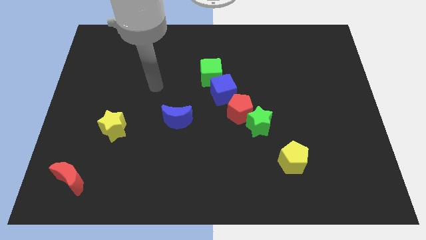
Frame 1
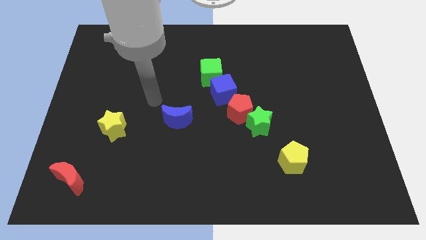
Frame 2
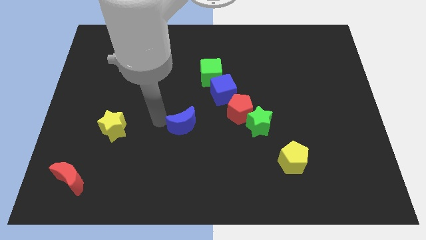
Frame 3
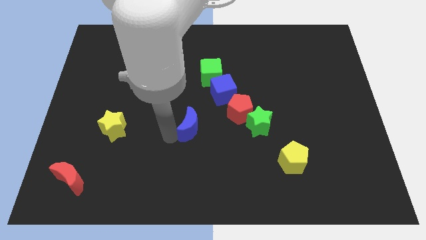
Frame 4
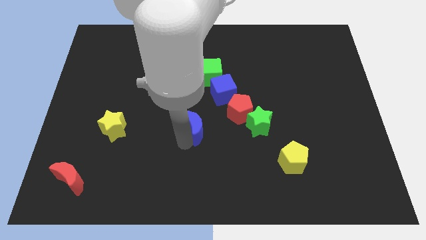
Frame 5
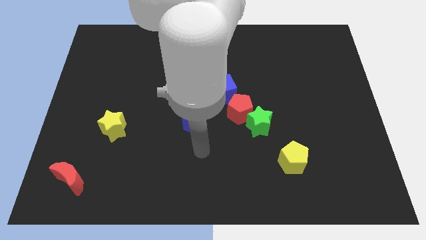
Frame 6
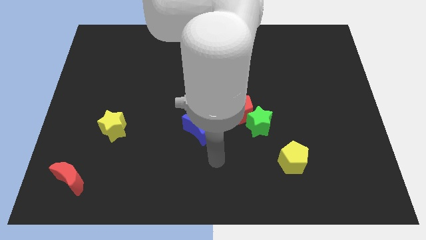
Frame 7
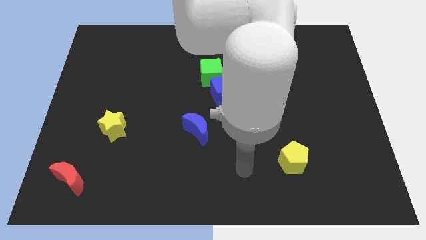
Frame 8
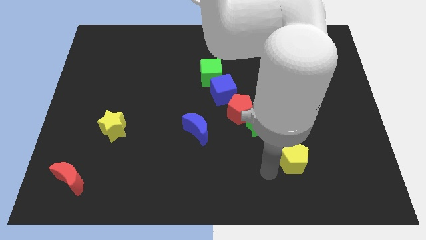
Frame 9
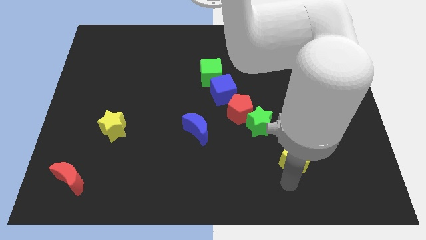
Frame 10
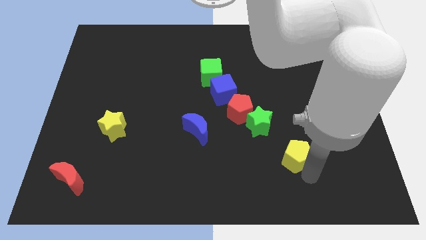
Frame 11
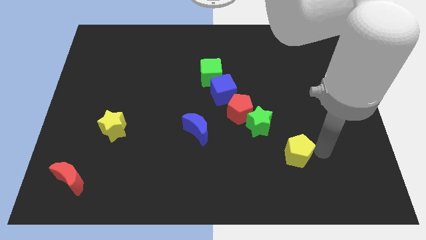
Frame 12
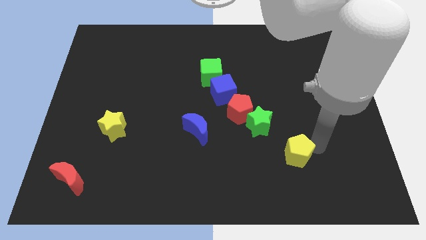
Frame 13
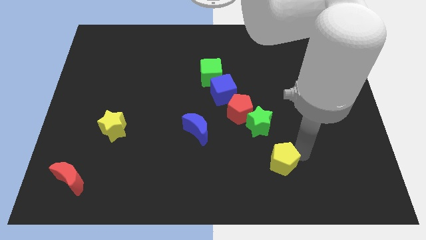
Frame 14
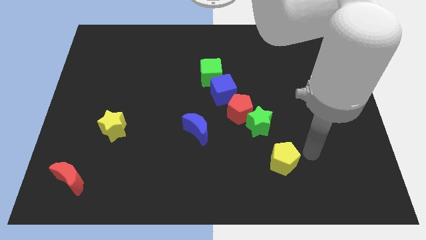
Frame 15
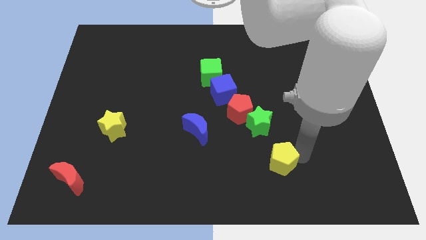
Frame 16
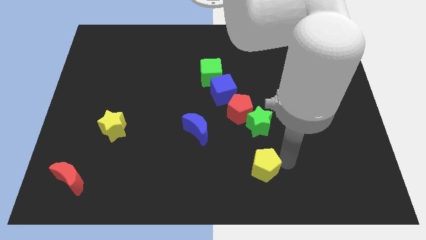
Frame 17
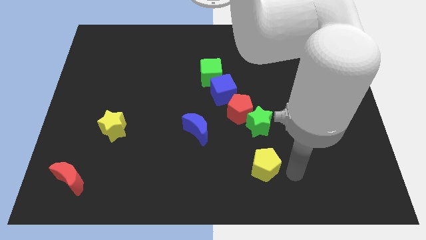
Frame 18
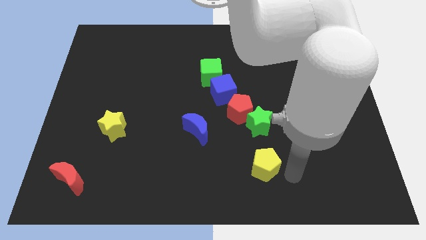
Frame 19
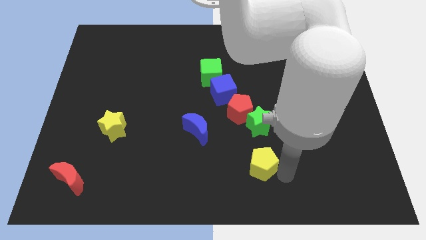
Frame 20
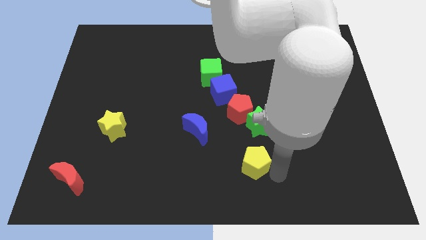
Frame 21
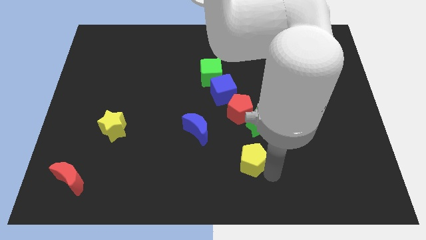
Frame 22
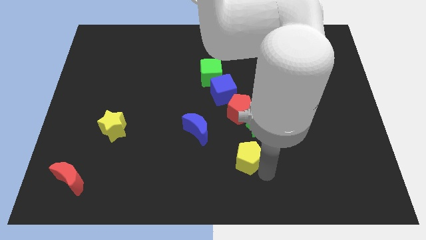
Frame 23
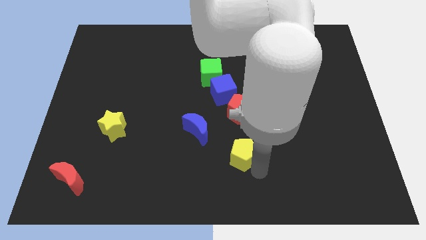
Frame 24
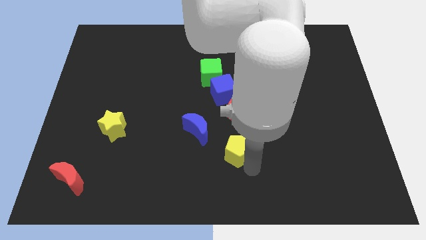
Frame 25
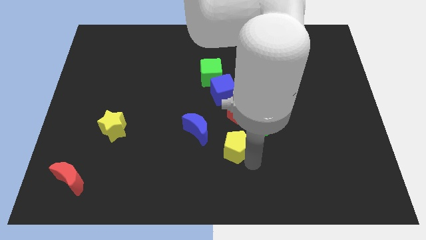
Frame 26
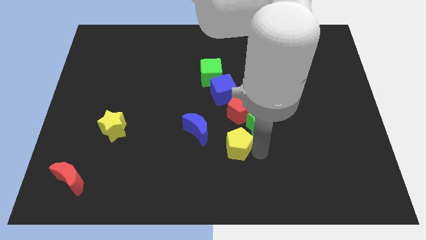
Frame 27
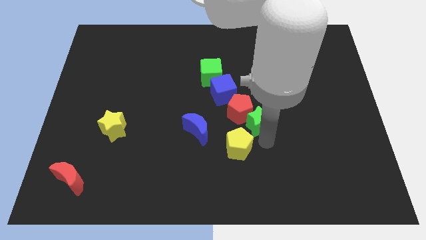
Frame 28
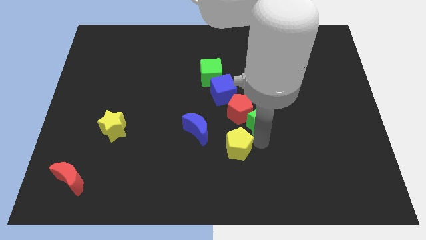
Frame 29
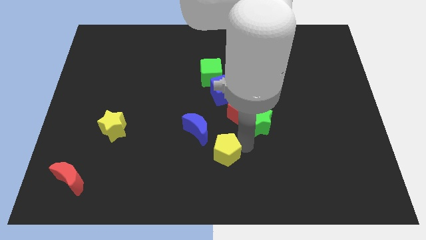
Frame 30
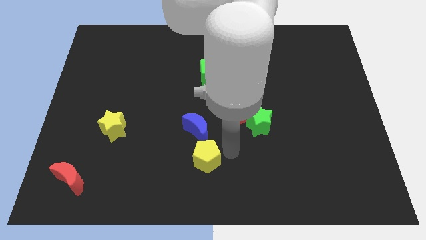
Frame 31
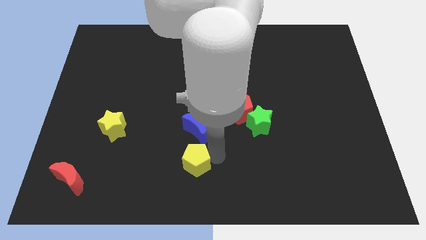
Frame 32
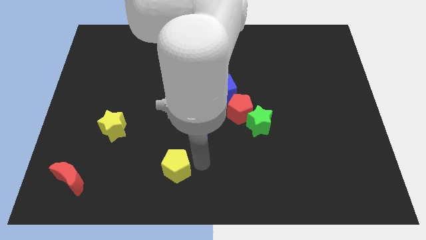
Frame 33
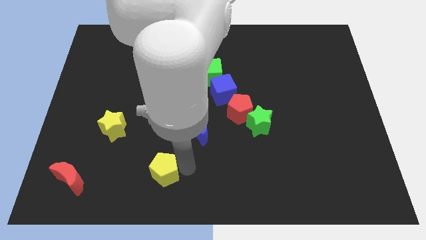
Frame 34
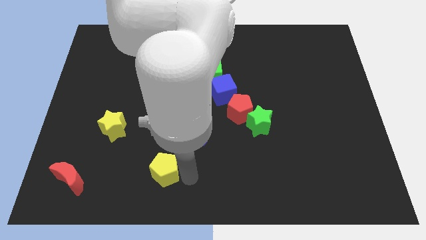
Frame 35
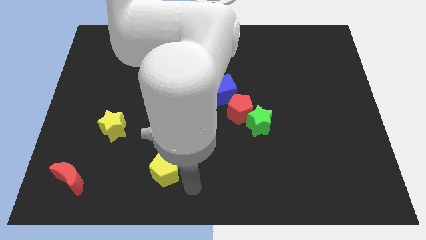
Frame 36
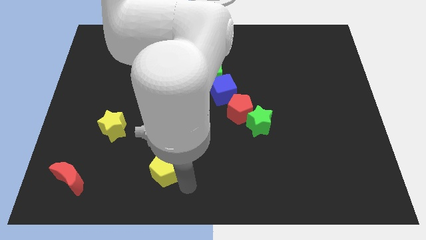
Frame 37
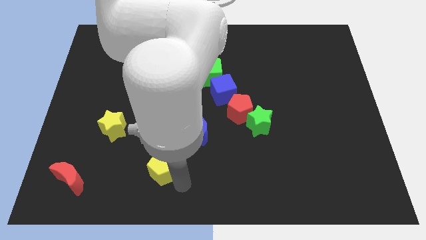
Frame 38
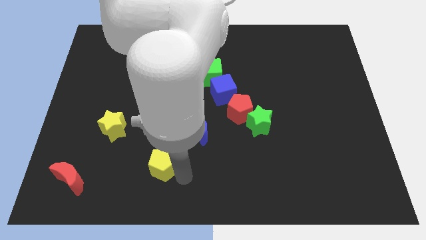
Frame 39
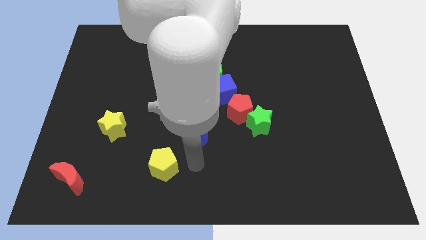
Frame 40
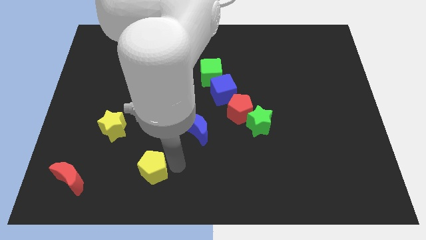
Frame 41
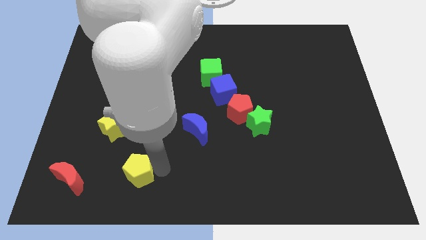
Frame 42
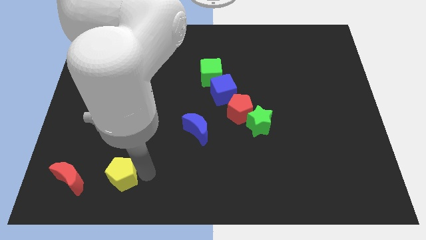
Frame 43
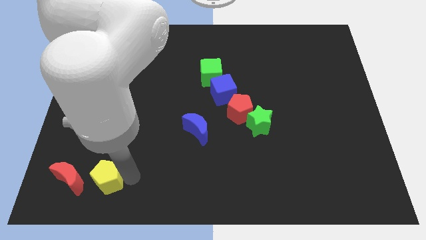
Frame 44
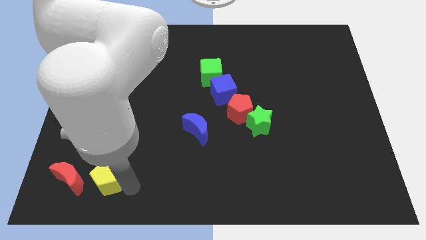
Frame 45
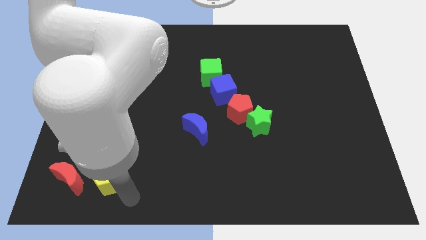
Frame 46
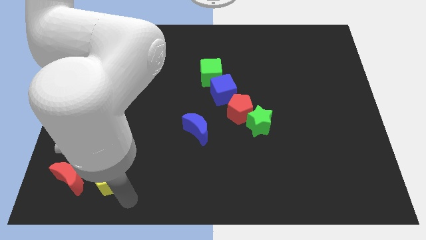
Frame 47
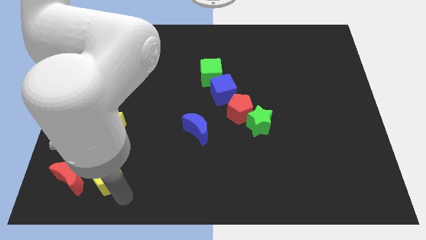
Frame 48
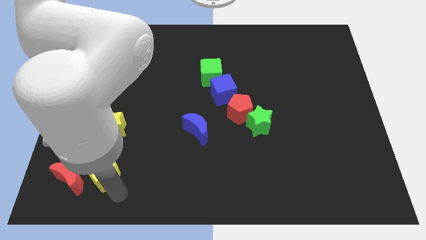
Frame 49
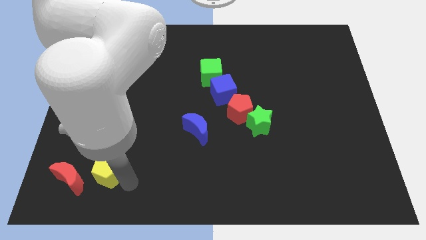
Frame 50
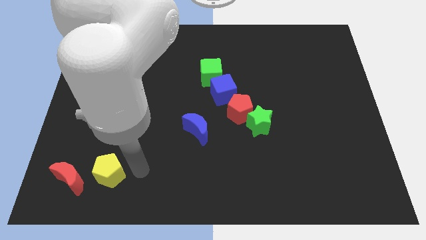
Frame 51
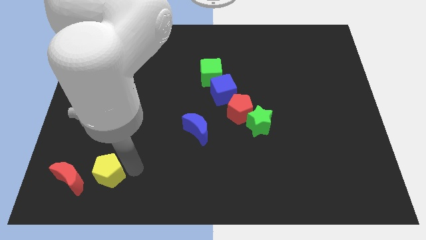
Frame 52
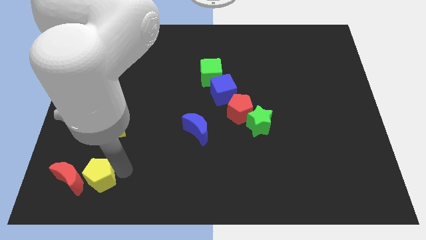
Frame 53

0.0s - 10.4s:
slide the yellow pentagon close to the red moon

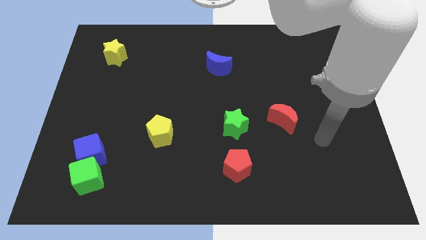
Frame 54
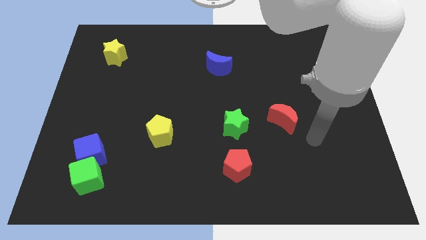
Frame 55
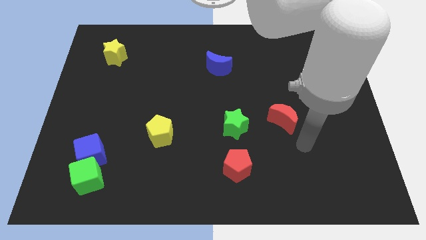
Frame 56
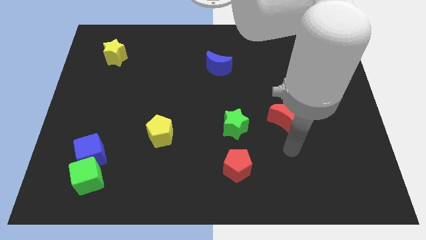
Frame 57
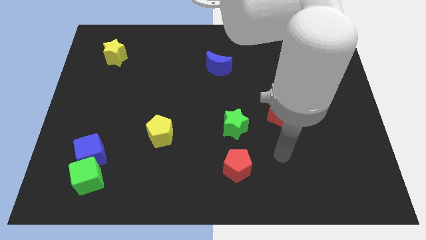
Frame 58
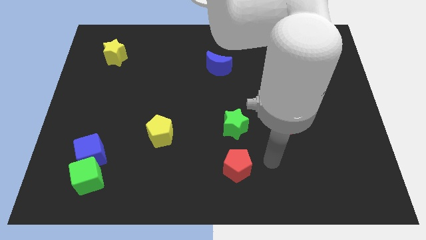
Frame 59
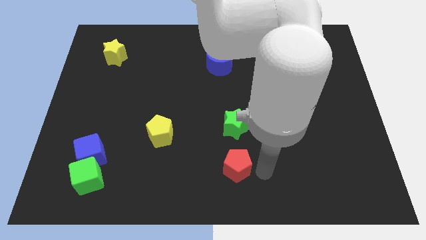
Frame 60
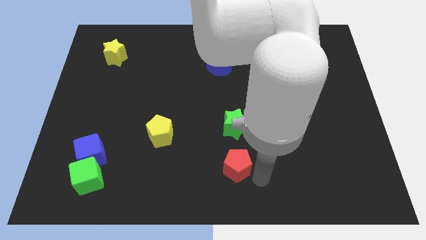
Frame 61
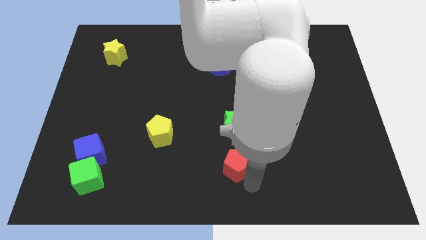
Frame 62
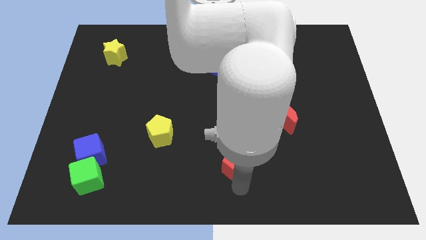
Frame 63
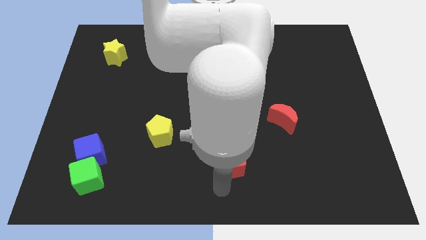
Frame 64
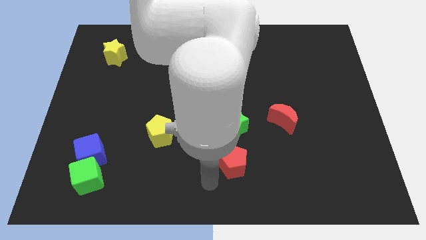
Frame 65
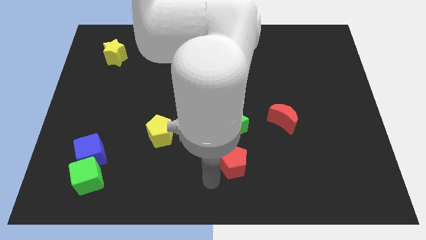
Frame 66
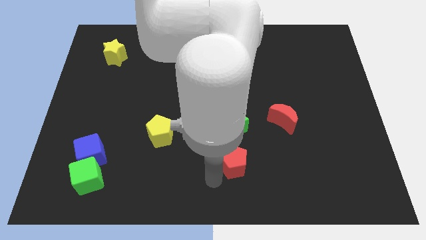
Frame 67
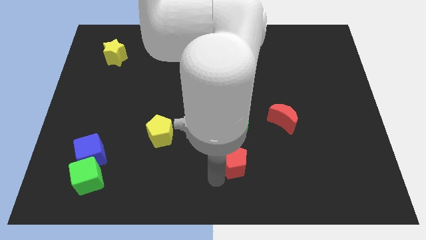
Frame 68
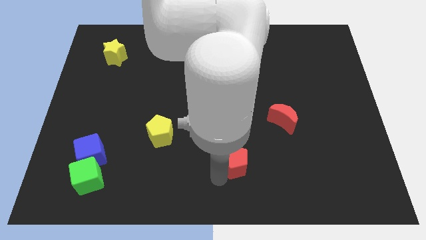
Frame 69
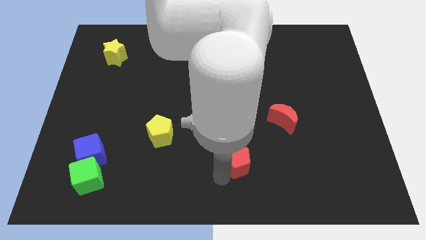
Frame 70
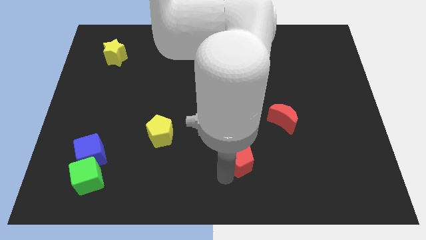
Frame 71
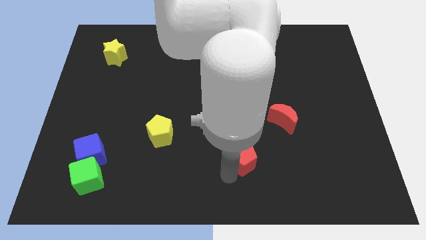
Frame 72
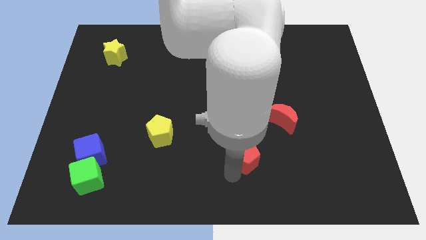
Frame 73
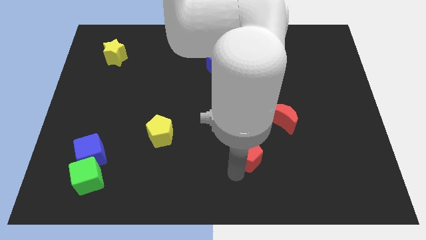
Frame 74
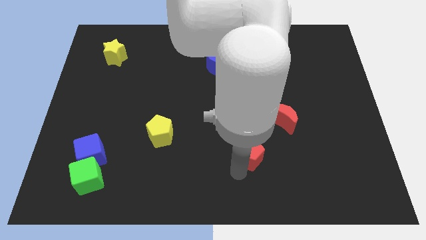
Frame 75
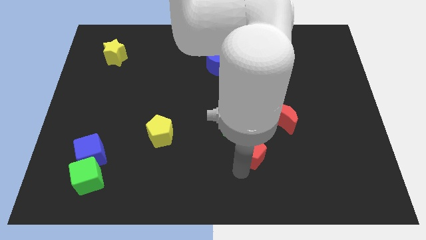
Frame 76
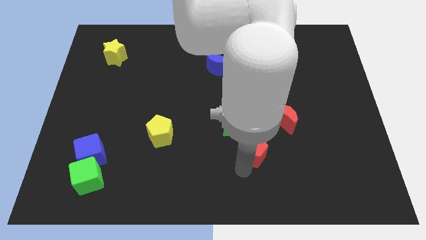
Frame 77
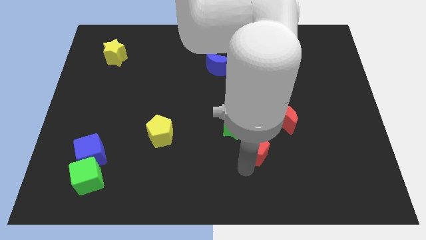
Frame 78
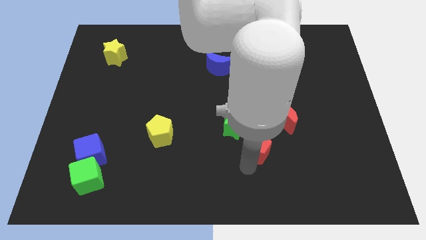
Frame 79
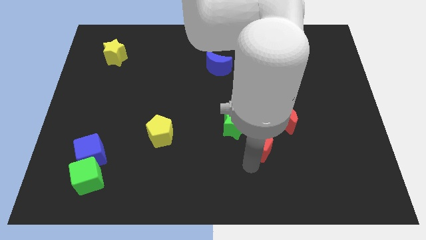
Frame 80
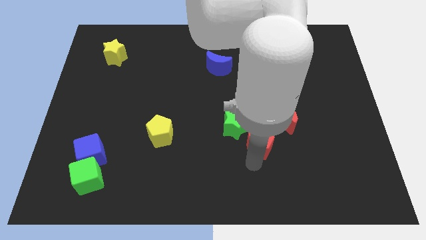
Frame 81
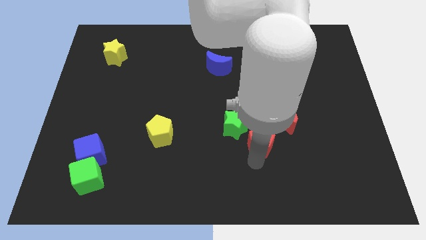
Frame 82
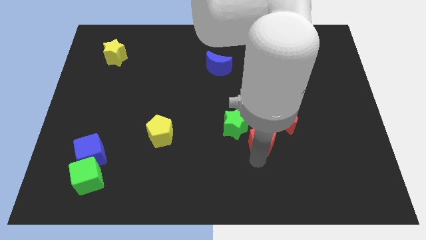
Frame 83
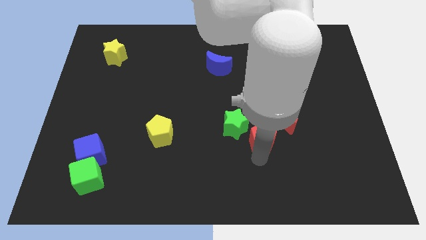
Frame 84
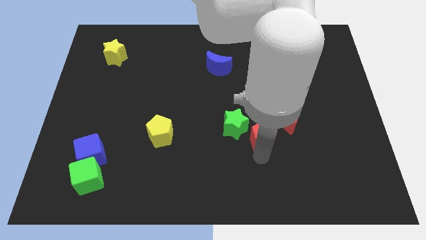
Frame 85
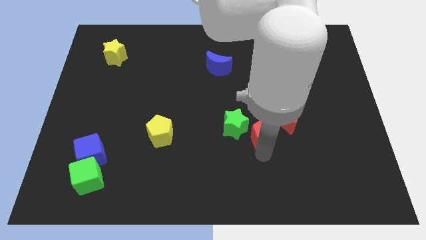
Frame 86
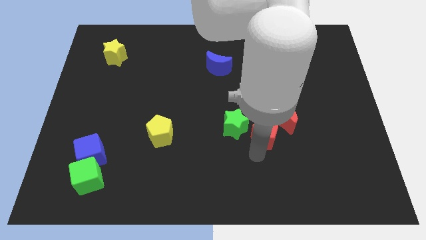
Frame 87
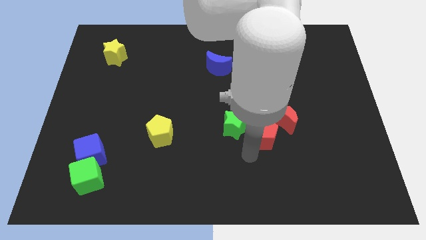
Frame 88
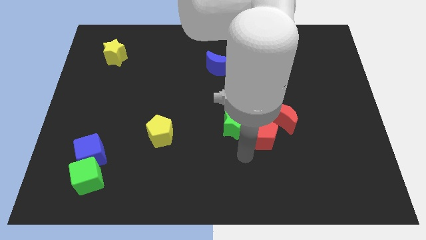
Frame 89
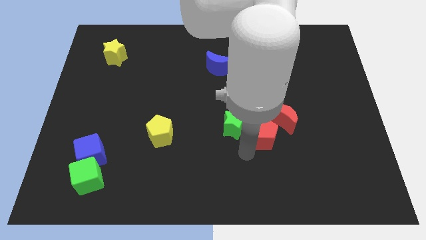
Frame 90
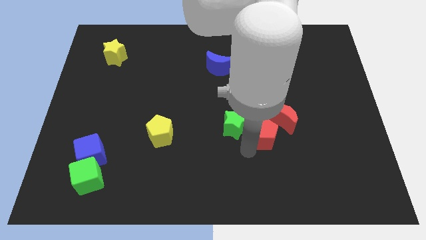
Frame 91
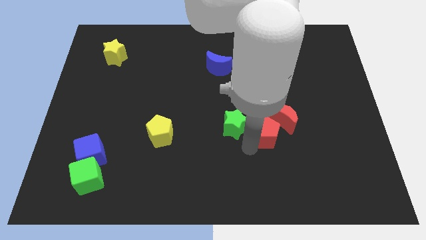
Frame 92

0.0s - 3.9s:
move the red pentagon towards the red moon
